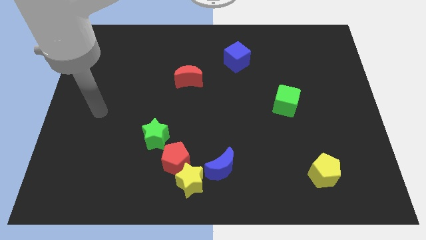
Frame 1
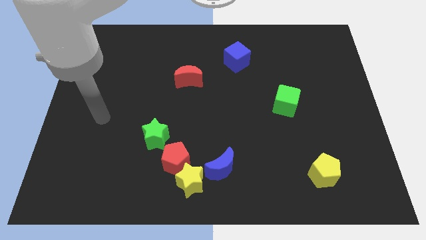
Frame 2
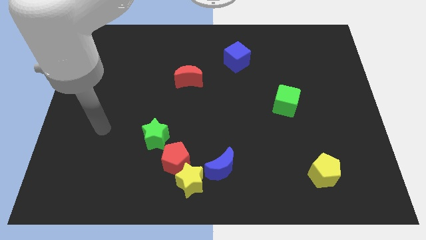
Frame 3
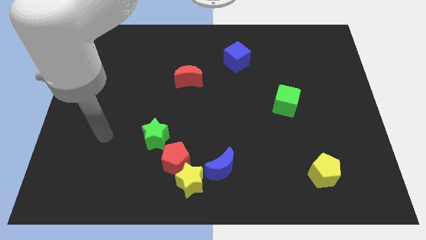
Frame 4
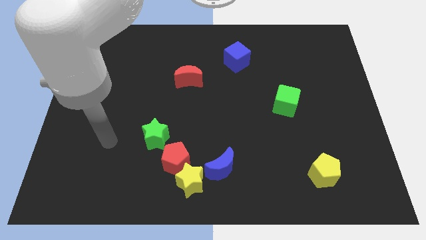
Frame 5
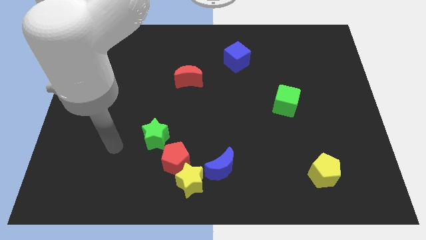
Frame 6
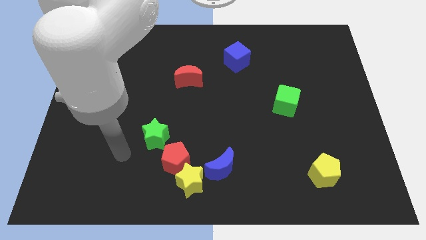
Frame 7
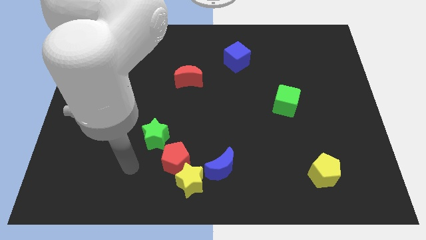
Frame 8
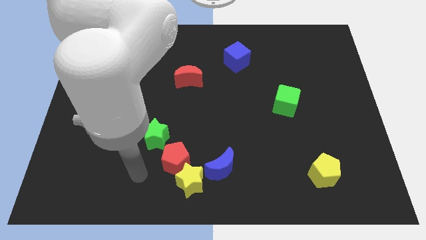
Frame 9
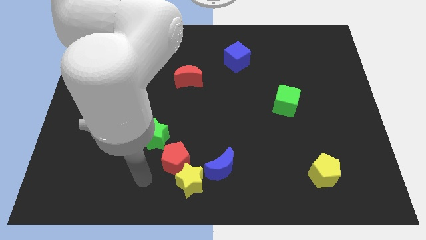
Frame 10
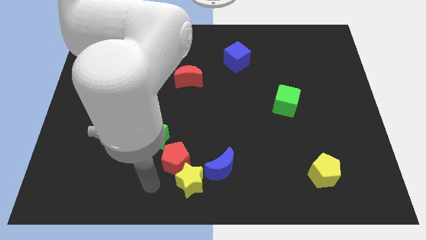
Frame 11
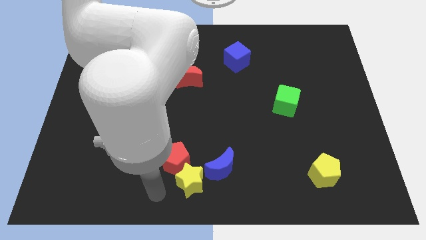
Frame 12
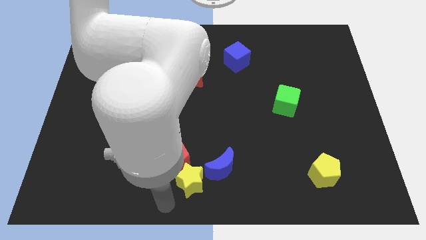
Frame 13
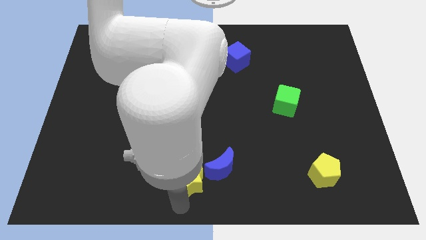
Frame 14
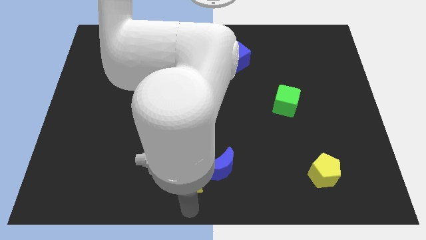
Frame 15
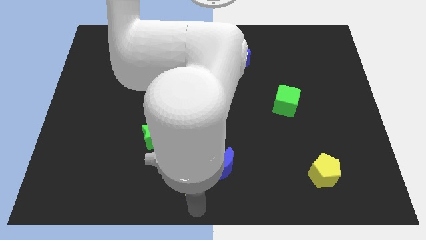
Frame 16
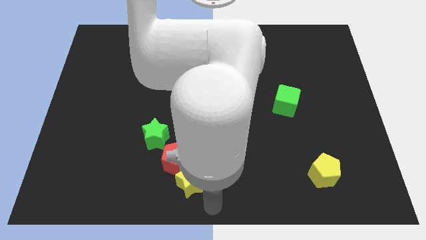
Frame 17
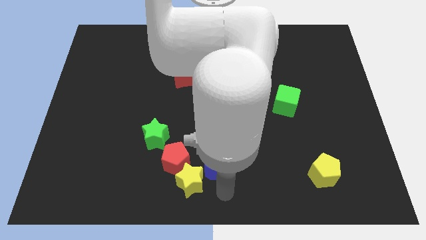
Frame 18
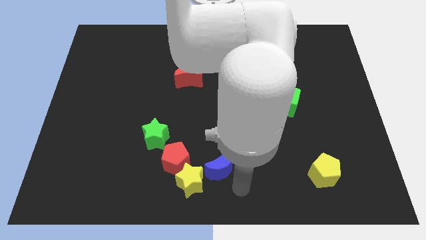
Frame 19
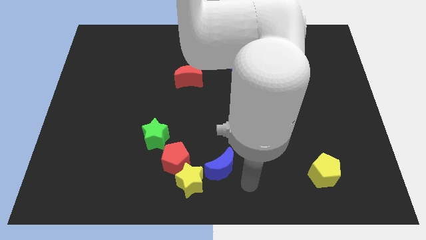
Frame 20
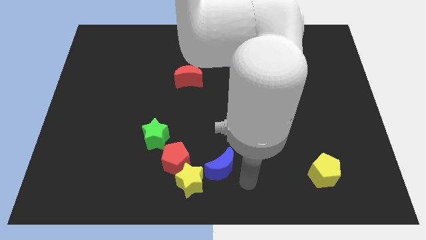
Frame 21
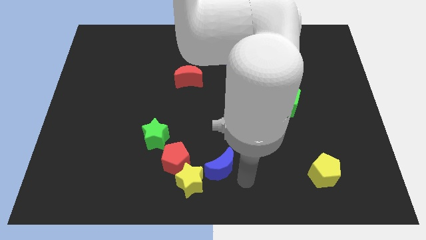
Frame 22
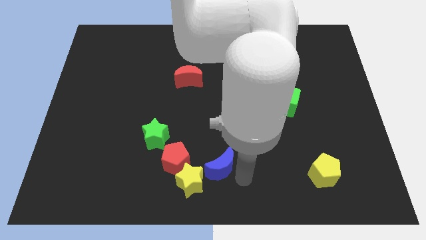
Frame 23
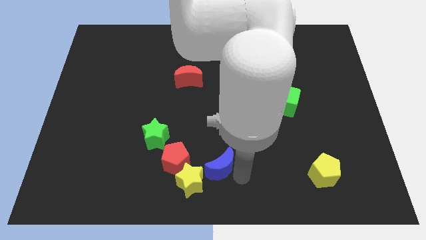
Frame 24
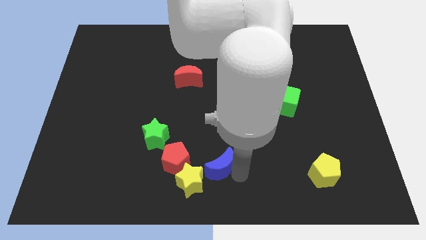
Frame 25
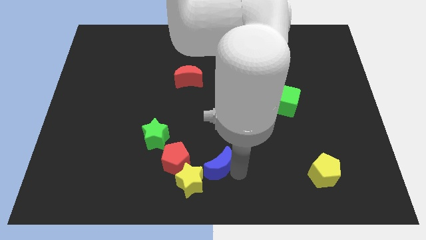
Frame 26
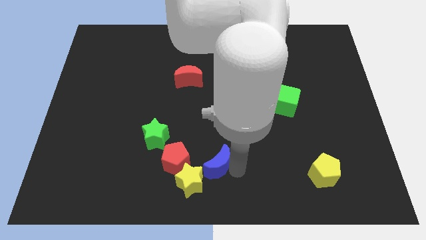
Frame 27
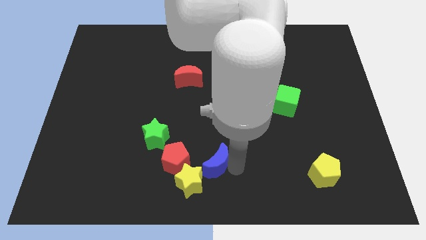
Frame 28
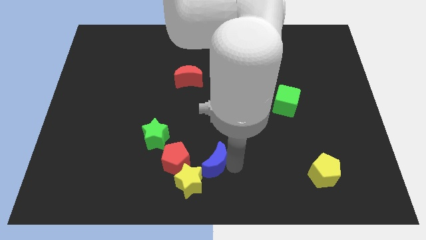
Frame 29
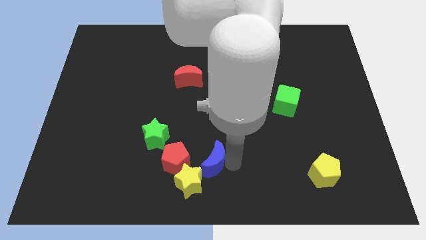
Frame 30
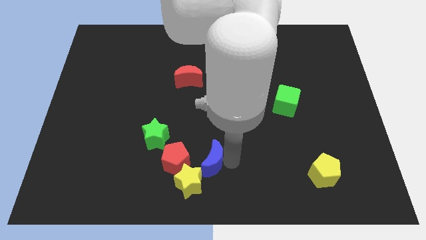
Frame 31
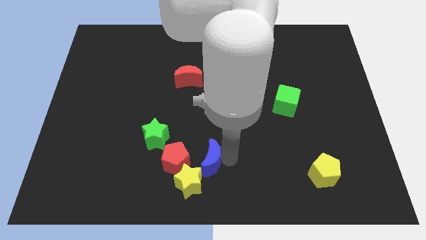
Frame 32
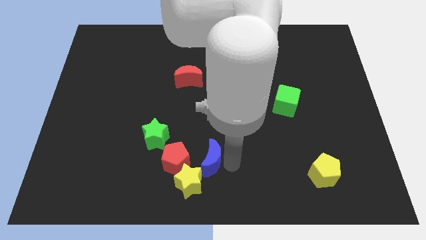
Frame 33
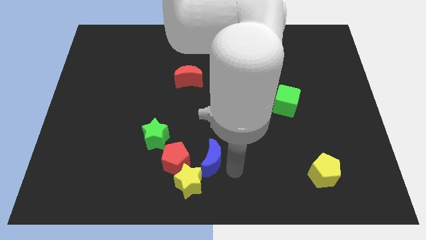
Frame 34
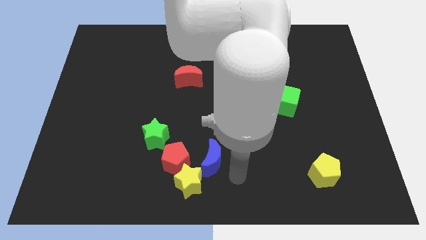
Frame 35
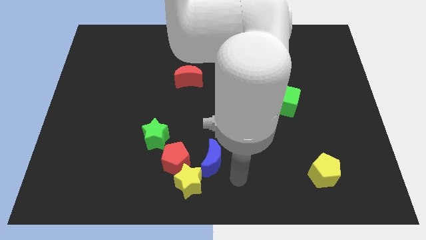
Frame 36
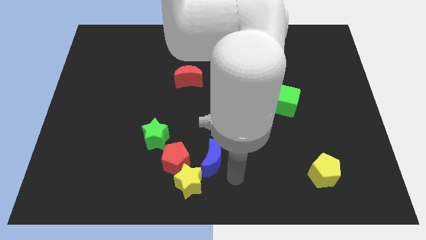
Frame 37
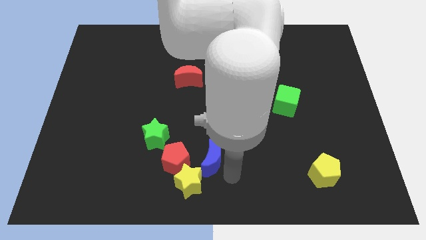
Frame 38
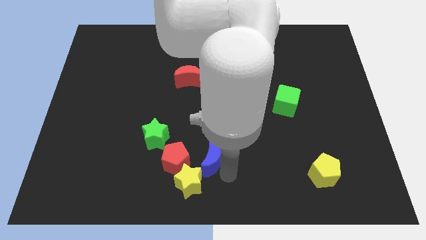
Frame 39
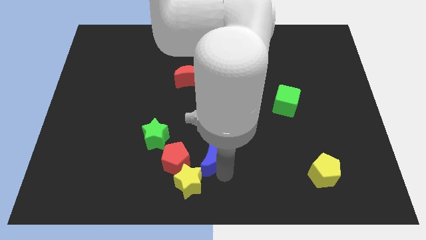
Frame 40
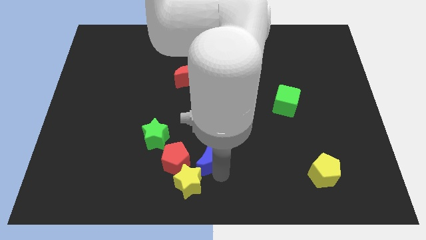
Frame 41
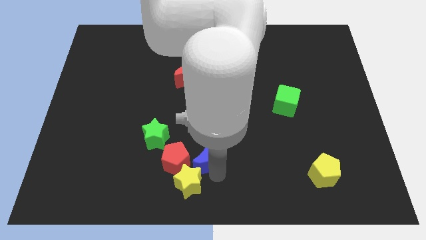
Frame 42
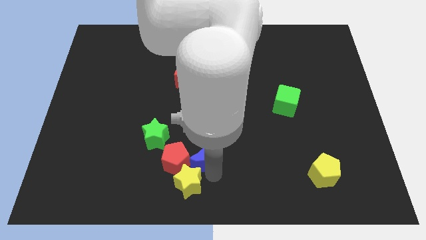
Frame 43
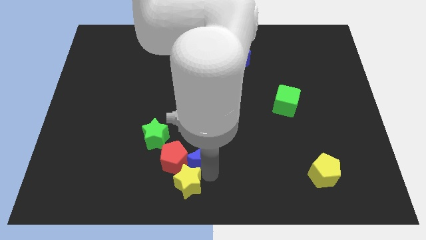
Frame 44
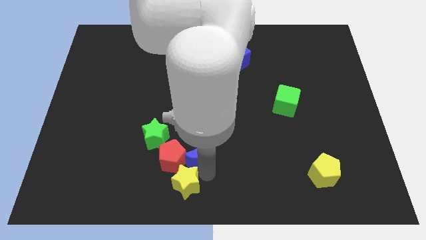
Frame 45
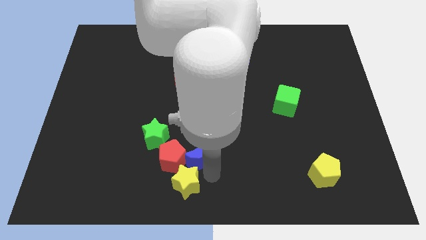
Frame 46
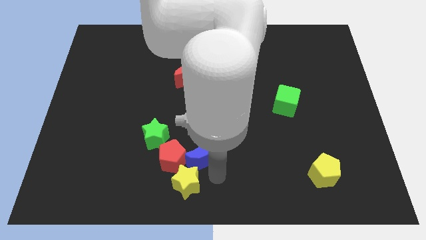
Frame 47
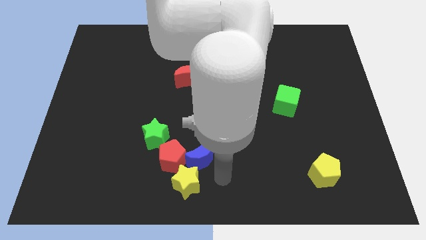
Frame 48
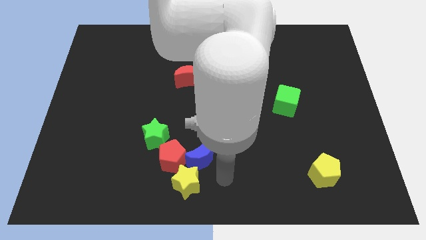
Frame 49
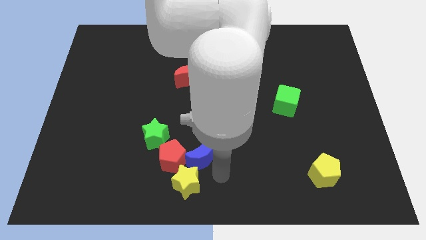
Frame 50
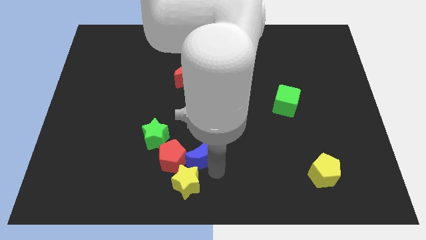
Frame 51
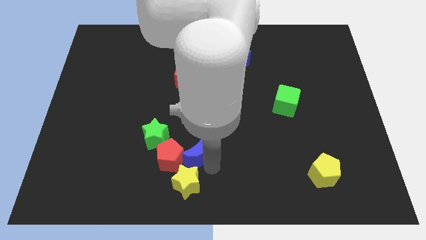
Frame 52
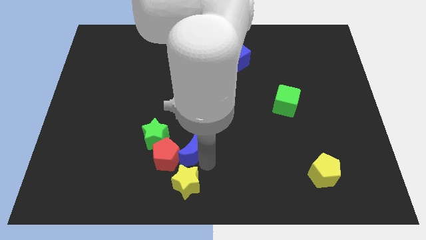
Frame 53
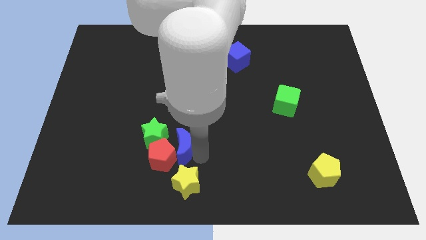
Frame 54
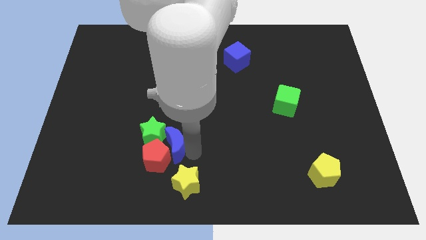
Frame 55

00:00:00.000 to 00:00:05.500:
put the blue moon to the green star

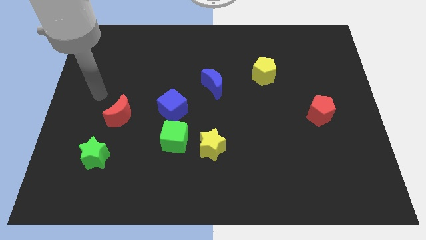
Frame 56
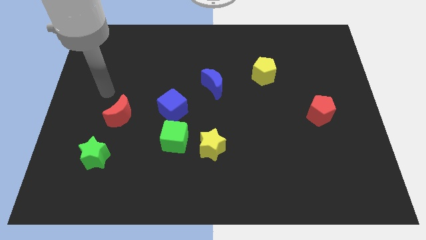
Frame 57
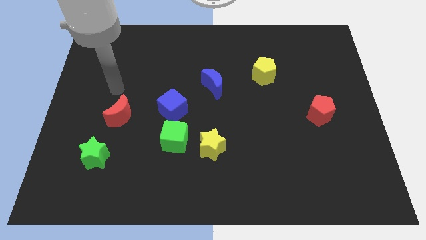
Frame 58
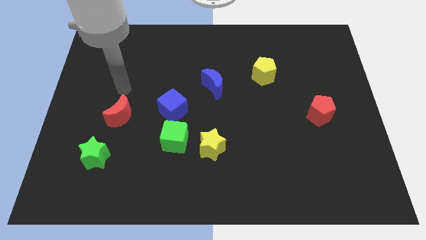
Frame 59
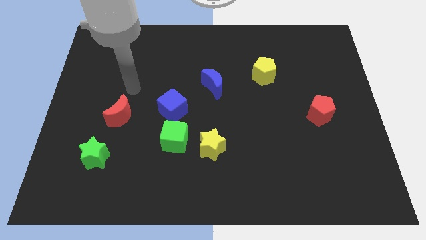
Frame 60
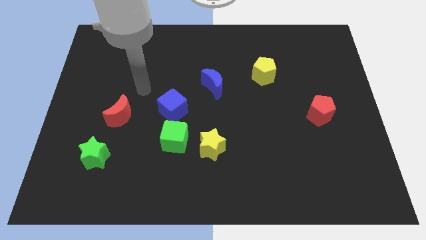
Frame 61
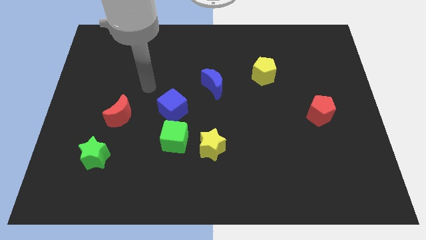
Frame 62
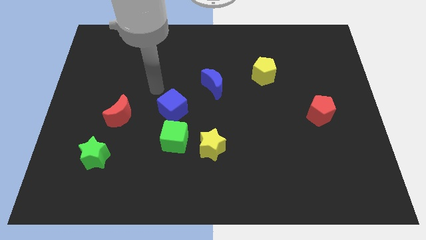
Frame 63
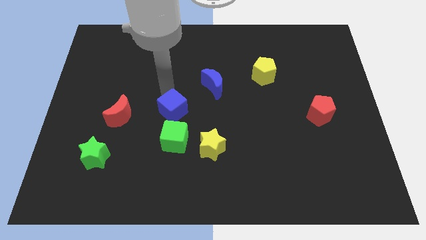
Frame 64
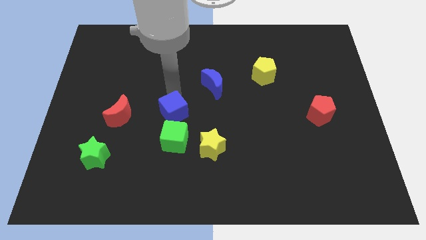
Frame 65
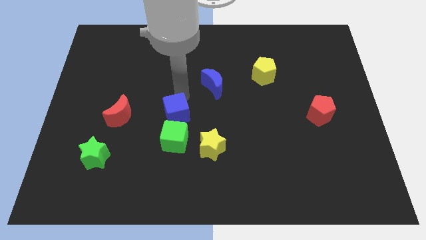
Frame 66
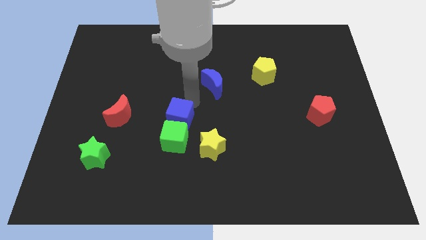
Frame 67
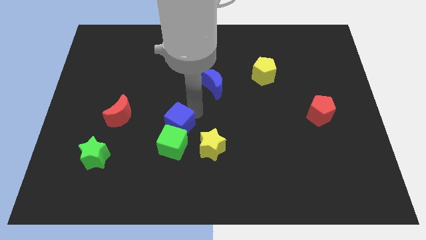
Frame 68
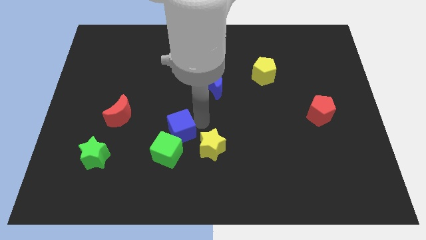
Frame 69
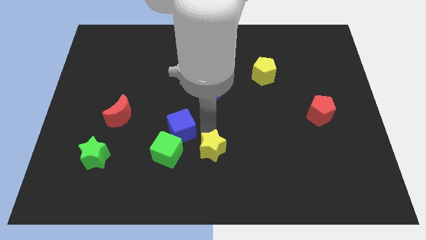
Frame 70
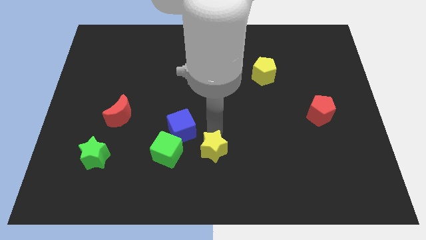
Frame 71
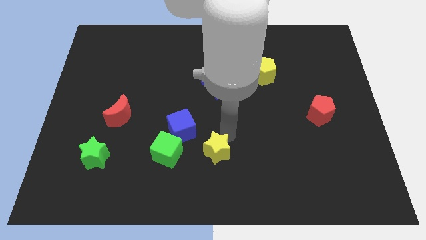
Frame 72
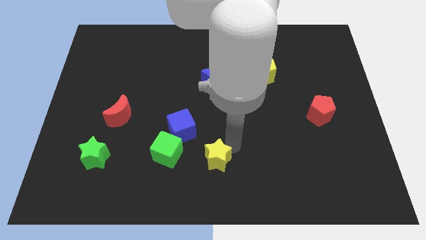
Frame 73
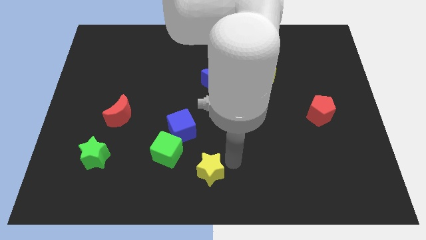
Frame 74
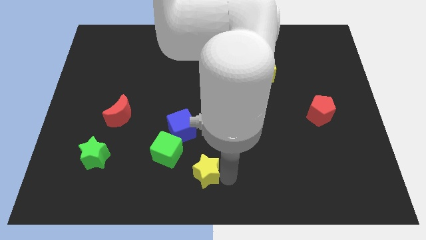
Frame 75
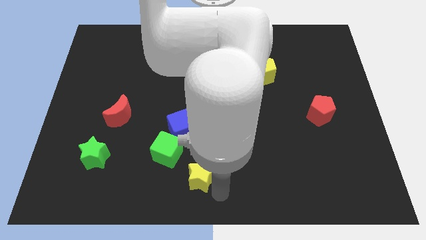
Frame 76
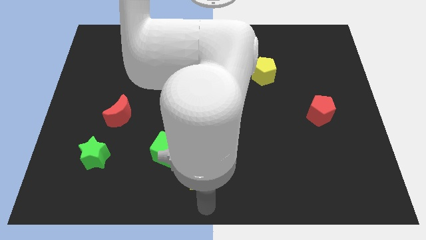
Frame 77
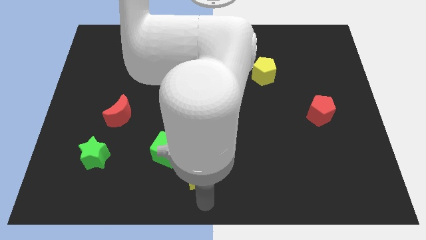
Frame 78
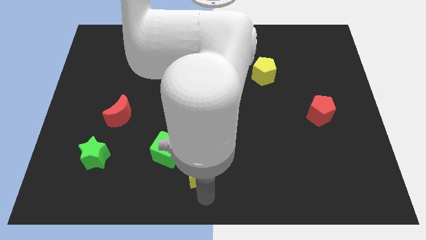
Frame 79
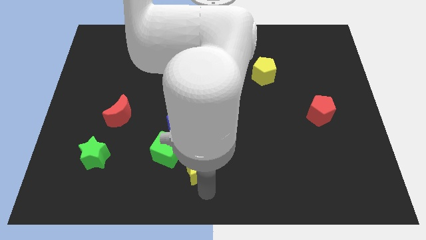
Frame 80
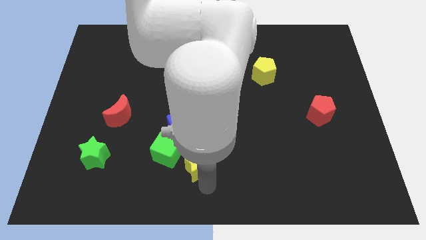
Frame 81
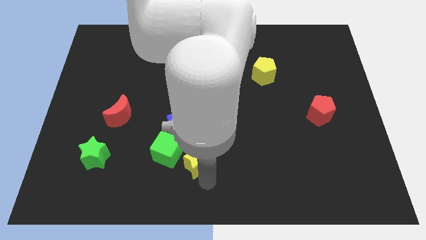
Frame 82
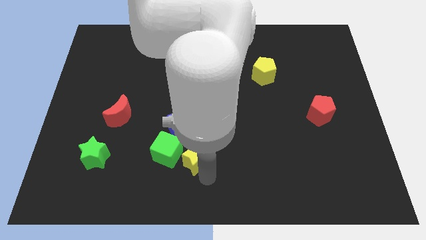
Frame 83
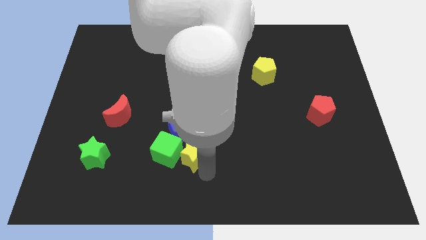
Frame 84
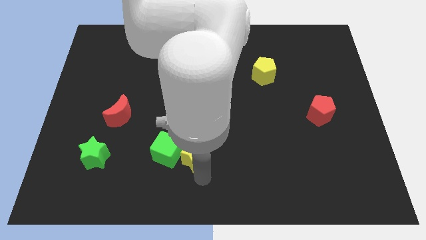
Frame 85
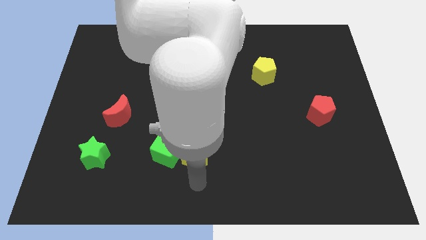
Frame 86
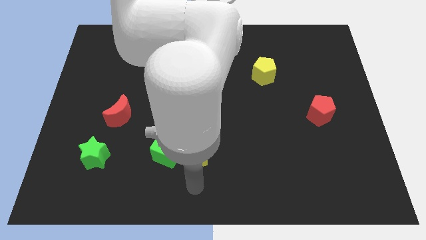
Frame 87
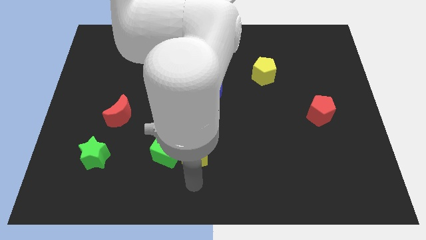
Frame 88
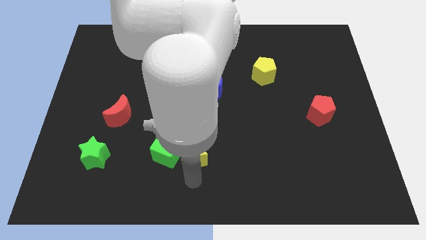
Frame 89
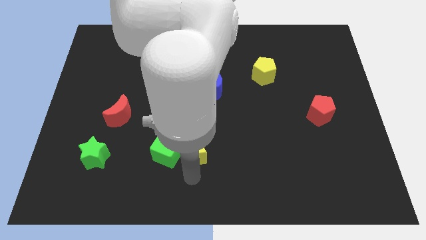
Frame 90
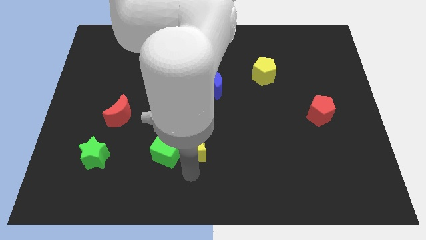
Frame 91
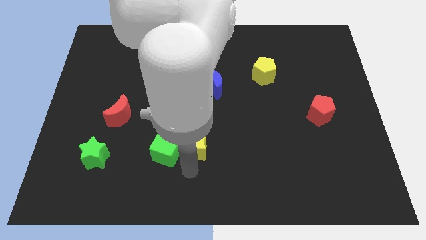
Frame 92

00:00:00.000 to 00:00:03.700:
slide the yellow star to the blue cube
